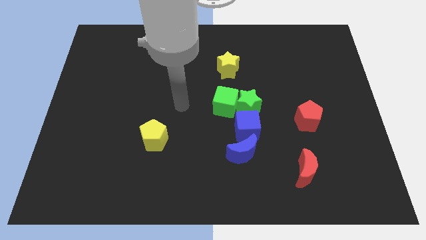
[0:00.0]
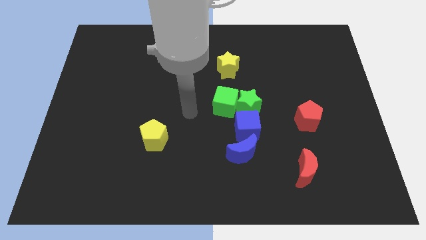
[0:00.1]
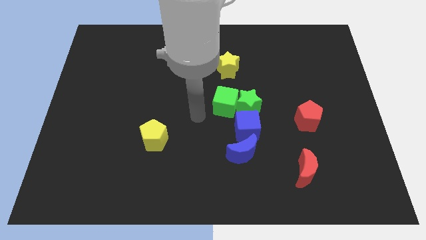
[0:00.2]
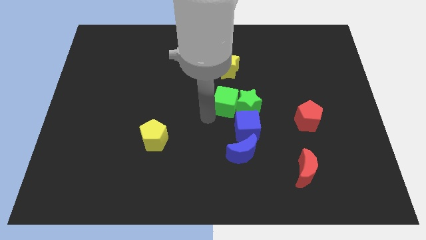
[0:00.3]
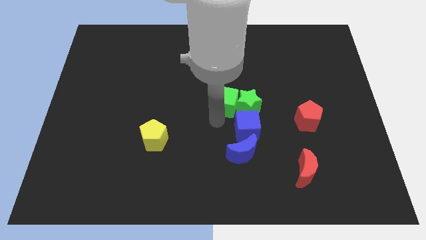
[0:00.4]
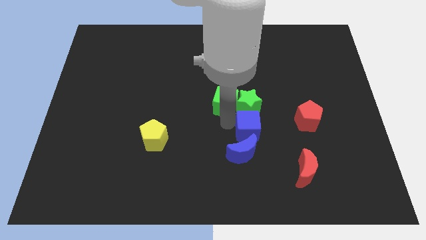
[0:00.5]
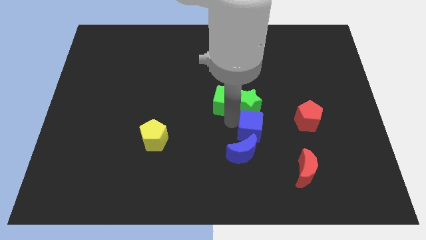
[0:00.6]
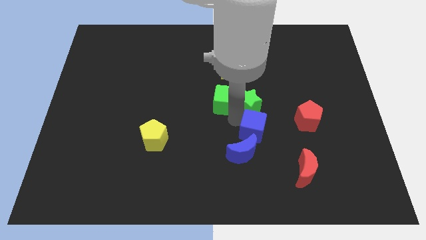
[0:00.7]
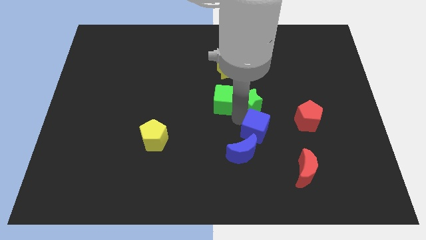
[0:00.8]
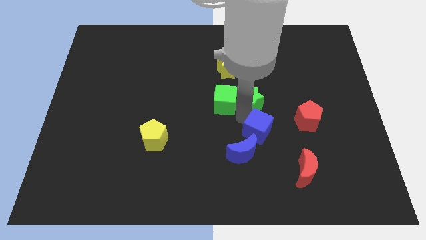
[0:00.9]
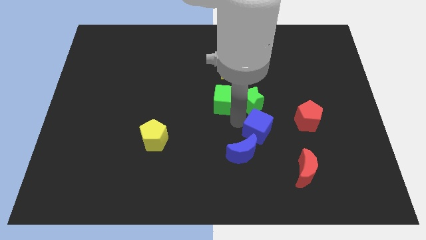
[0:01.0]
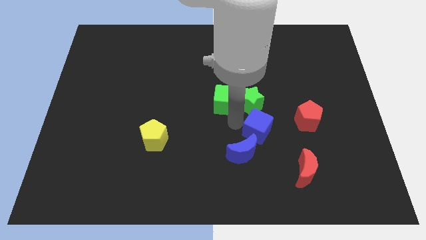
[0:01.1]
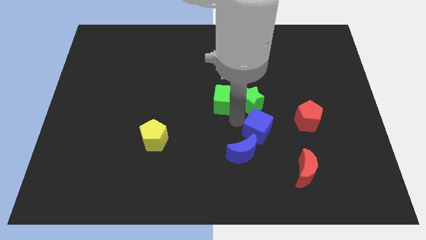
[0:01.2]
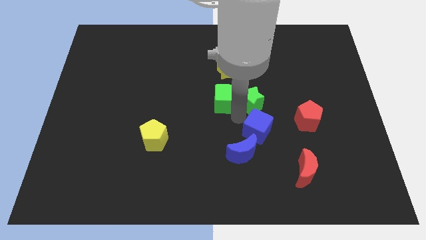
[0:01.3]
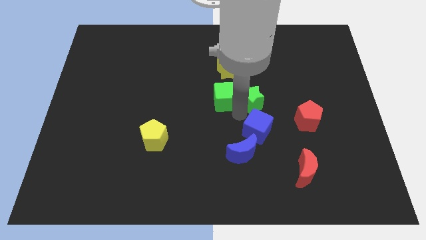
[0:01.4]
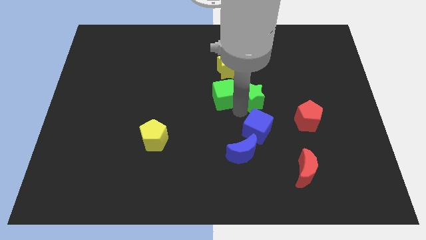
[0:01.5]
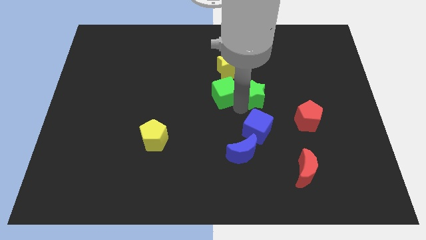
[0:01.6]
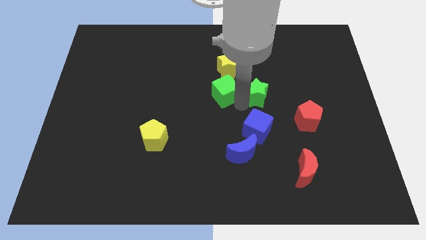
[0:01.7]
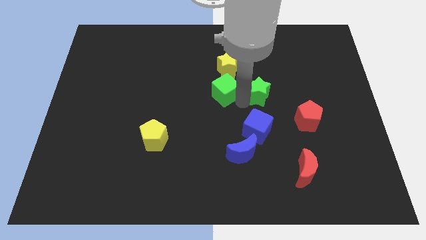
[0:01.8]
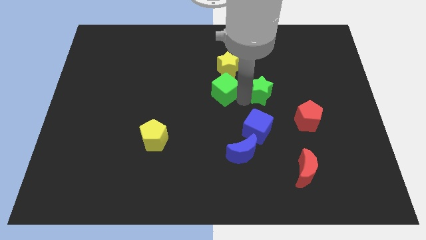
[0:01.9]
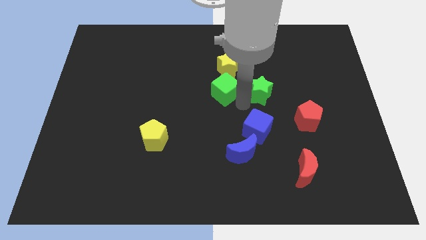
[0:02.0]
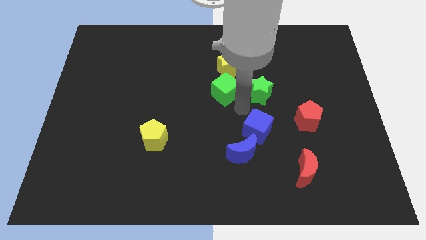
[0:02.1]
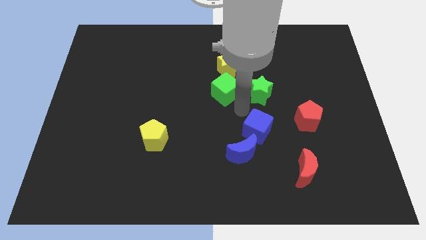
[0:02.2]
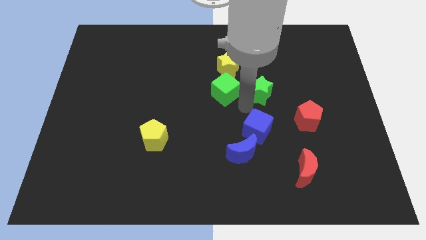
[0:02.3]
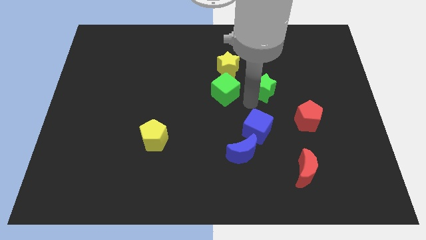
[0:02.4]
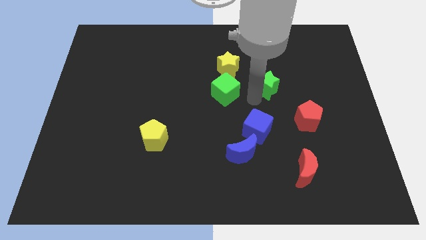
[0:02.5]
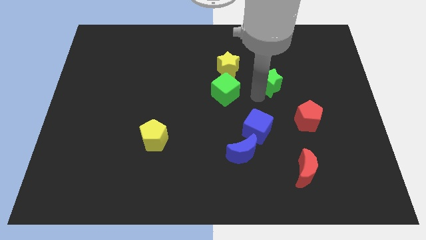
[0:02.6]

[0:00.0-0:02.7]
pull the green star apart from the green cube and blue cube

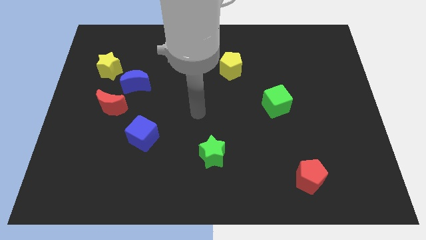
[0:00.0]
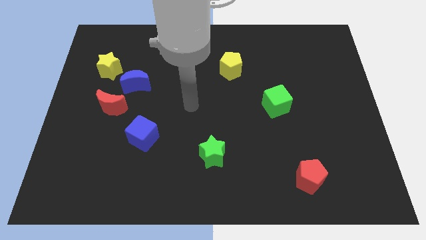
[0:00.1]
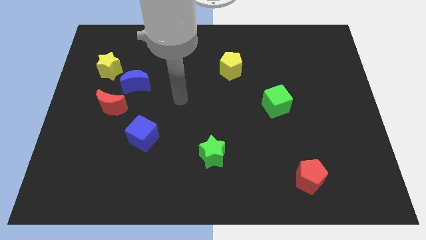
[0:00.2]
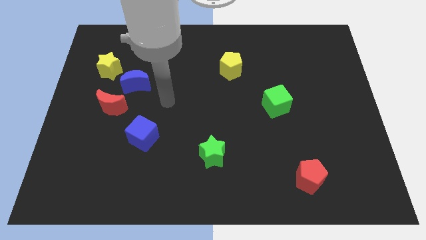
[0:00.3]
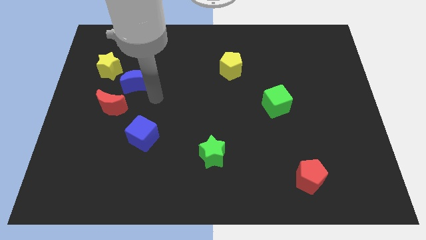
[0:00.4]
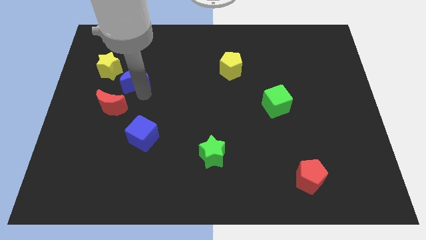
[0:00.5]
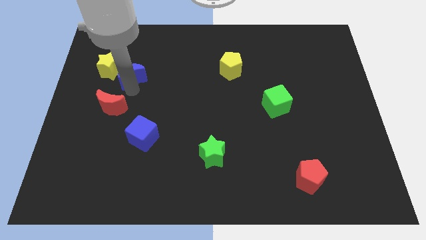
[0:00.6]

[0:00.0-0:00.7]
move the red moon away from the blue moon

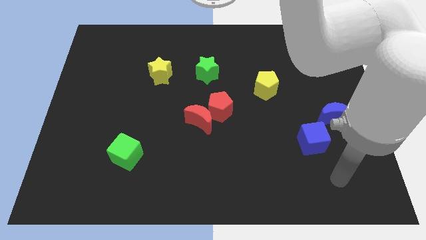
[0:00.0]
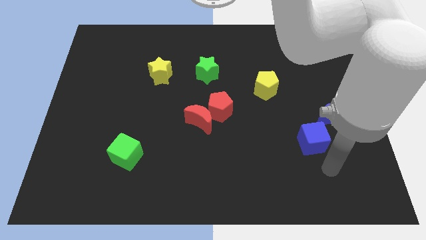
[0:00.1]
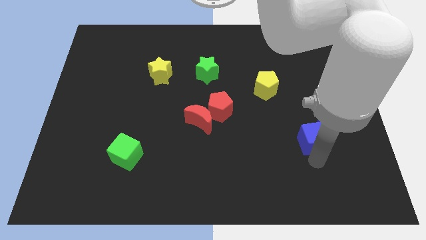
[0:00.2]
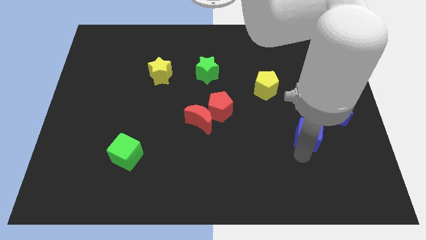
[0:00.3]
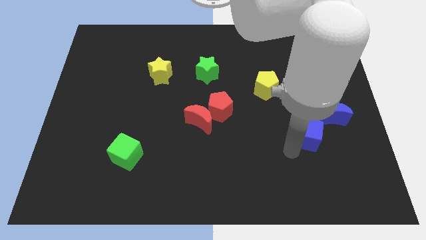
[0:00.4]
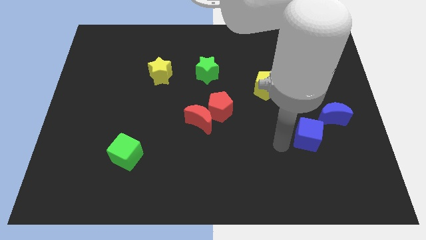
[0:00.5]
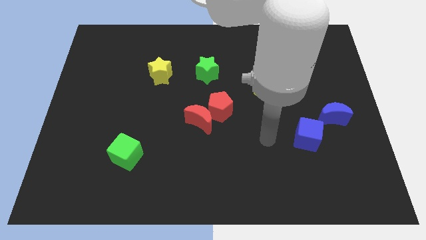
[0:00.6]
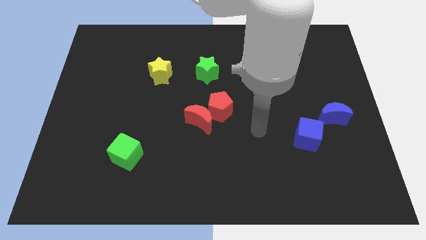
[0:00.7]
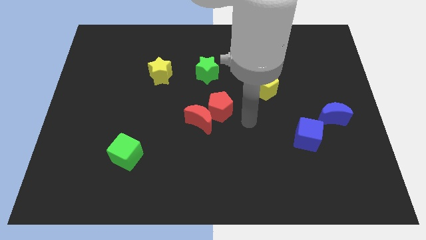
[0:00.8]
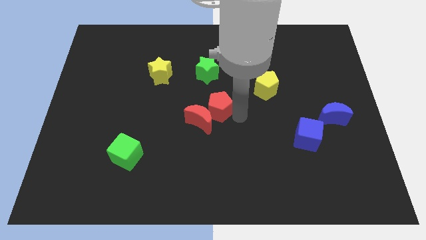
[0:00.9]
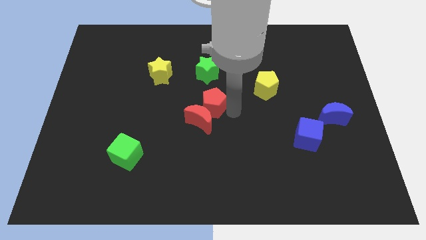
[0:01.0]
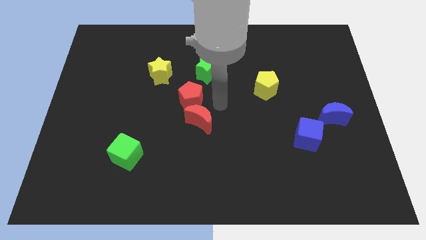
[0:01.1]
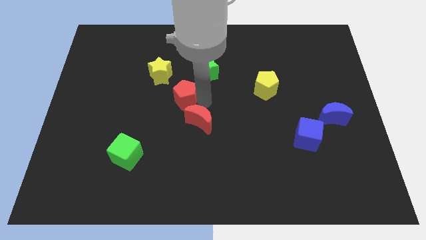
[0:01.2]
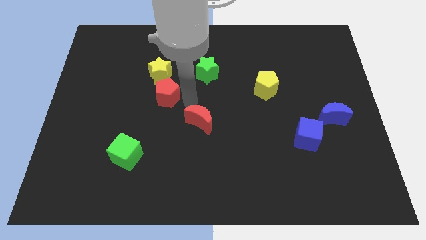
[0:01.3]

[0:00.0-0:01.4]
move the red moon away from the red pentagon

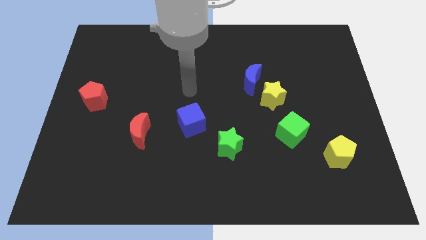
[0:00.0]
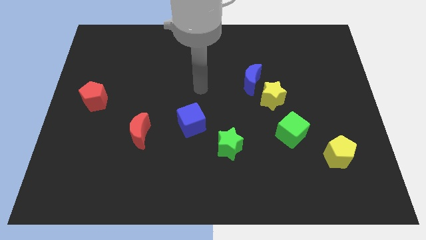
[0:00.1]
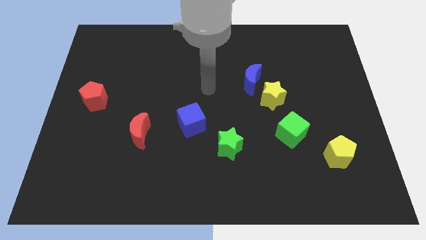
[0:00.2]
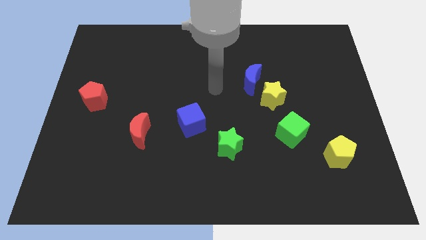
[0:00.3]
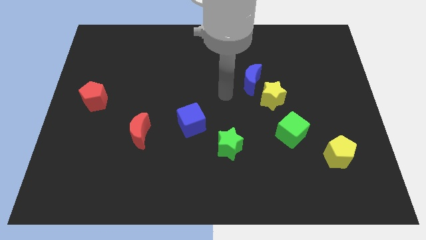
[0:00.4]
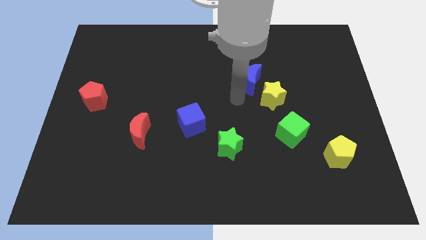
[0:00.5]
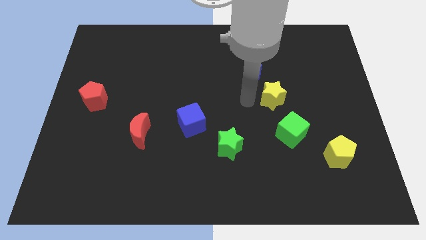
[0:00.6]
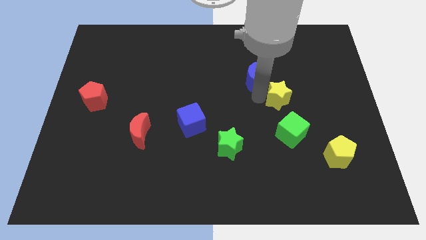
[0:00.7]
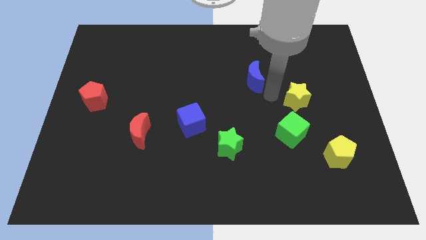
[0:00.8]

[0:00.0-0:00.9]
move the blue moon away from the yellow star

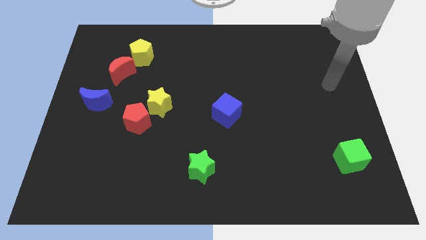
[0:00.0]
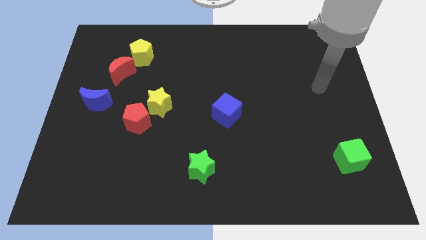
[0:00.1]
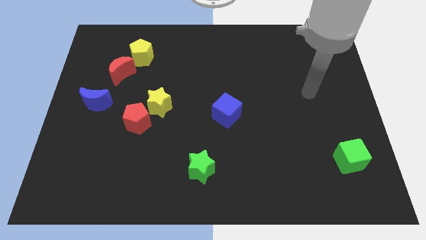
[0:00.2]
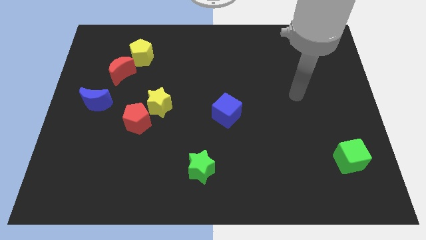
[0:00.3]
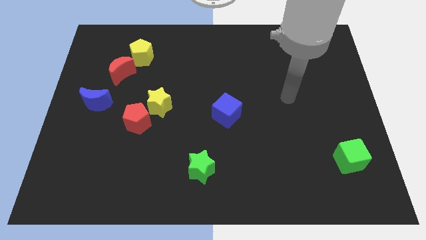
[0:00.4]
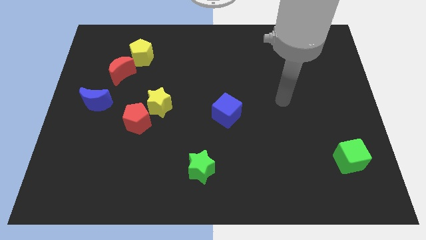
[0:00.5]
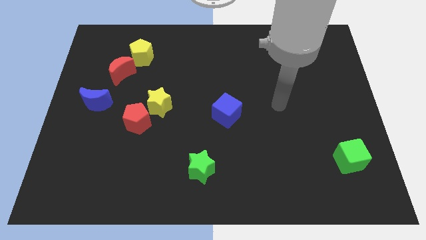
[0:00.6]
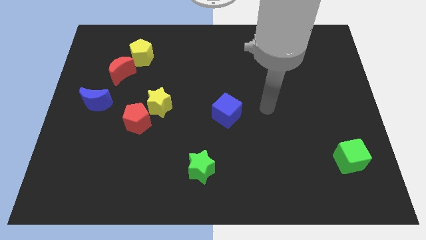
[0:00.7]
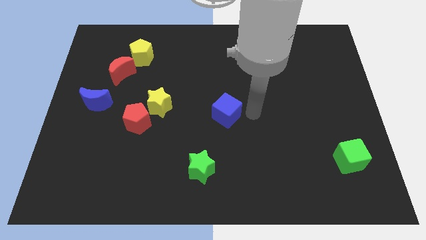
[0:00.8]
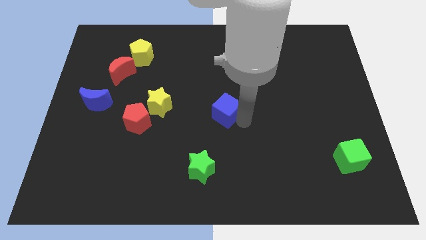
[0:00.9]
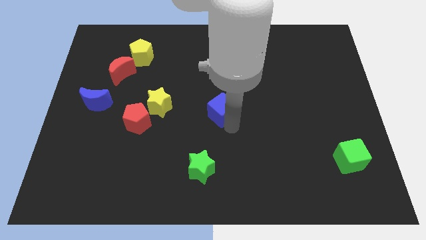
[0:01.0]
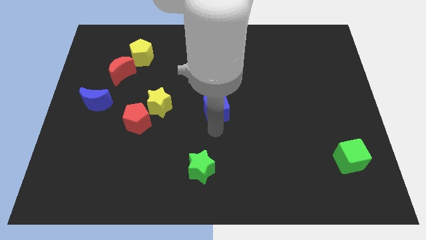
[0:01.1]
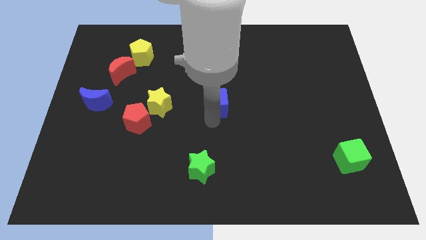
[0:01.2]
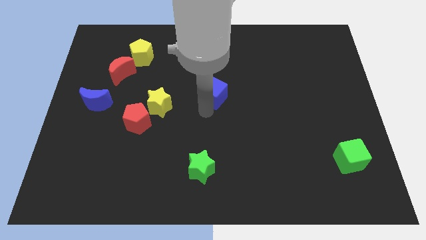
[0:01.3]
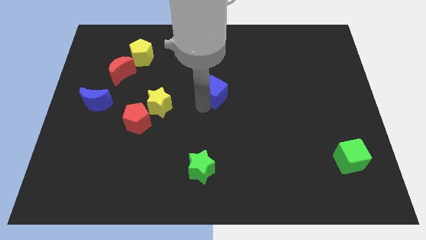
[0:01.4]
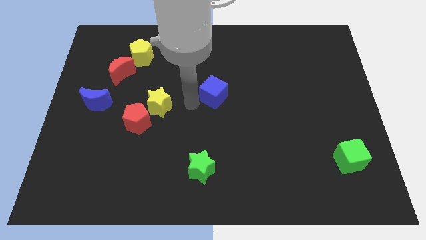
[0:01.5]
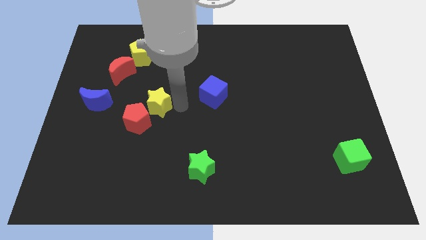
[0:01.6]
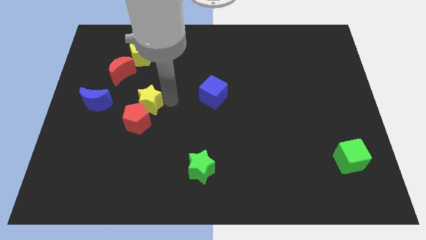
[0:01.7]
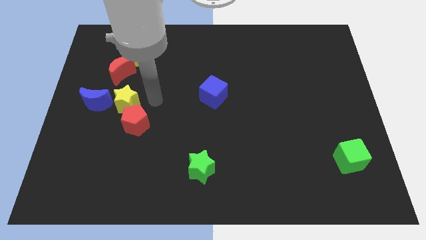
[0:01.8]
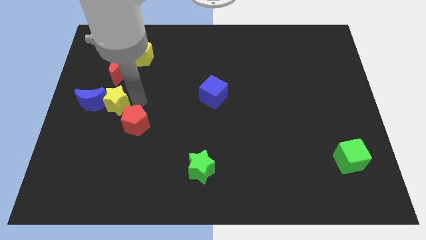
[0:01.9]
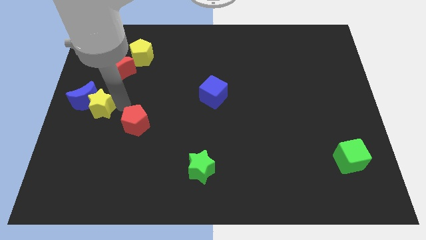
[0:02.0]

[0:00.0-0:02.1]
pull the red pentagon apart from the yellow star

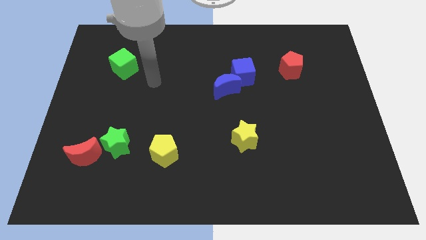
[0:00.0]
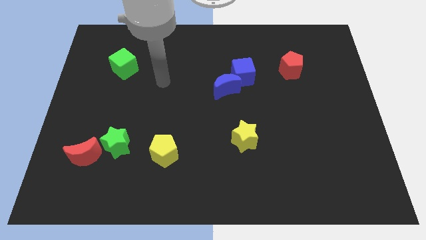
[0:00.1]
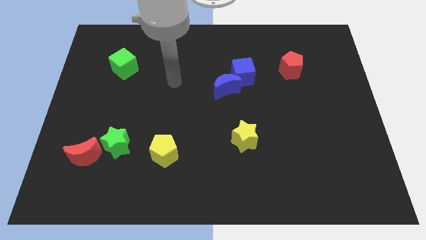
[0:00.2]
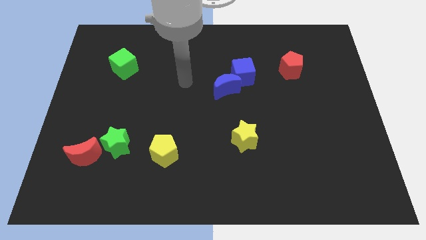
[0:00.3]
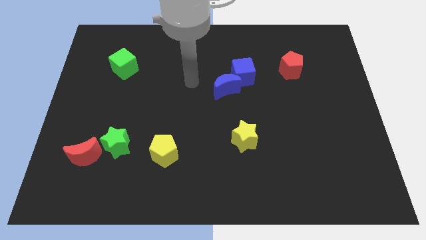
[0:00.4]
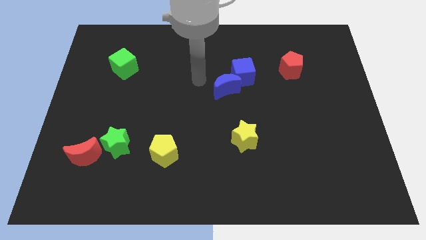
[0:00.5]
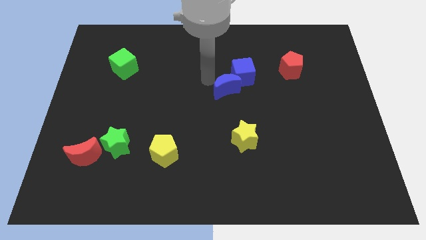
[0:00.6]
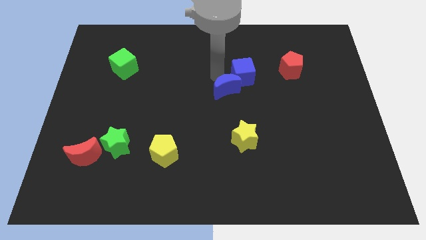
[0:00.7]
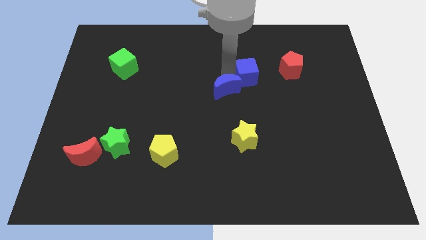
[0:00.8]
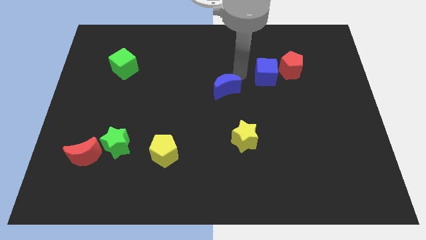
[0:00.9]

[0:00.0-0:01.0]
separate the blue moon from the blue cube

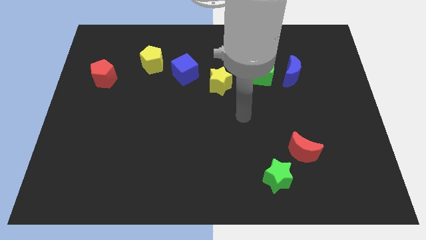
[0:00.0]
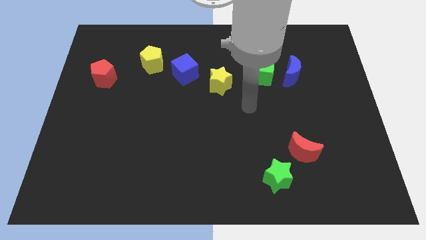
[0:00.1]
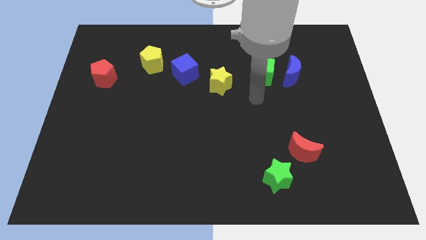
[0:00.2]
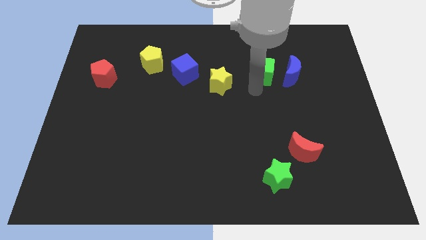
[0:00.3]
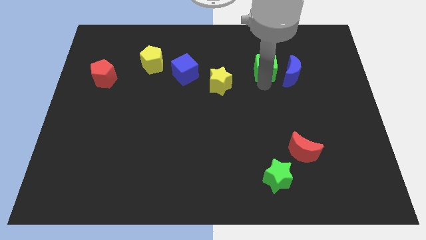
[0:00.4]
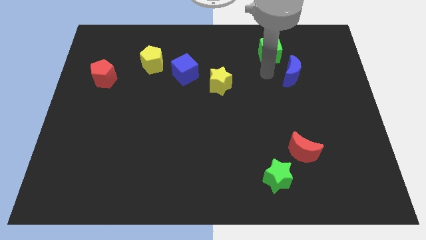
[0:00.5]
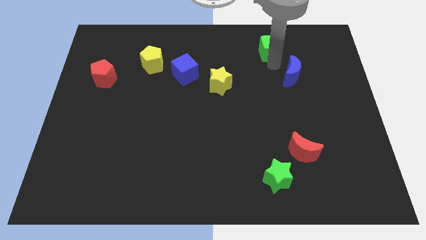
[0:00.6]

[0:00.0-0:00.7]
separate the blue moon from the green cube
